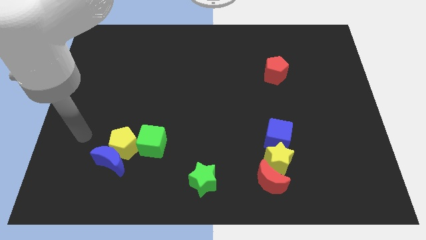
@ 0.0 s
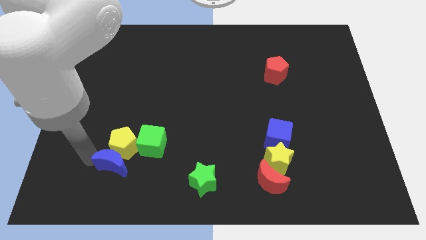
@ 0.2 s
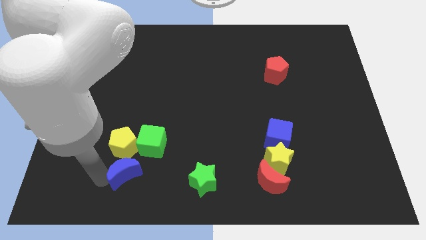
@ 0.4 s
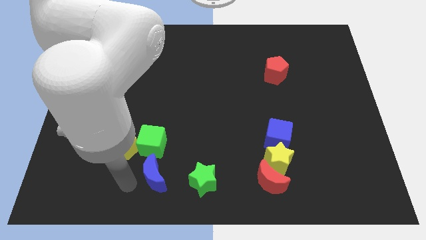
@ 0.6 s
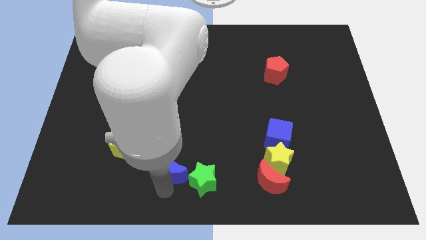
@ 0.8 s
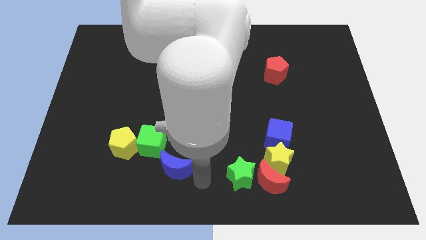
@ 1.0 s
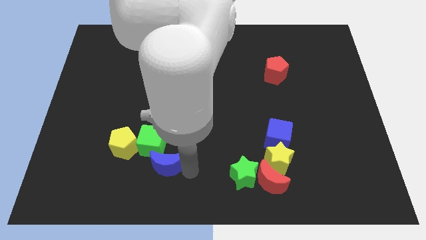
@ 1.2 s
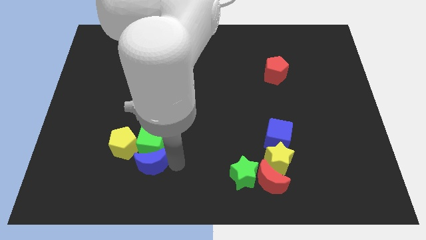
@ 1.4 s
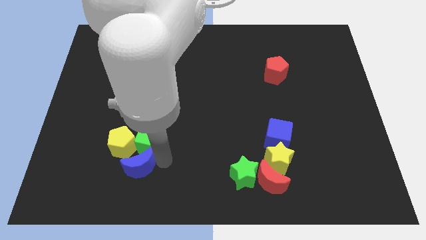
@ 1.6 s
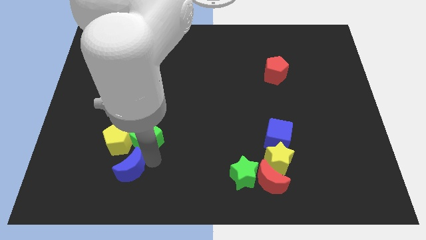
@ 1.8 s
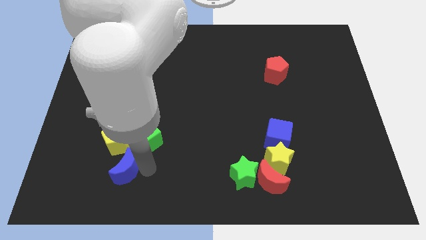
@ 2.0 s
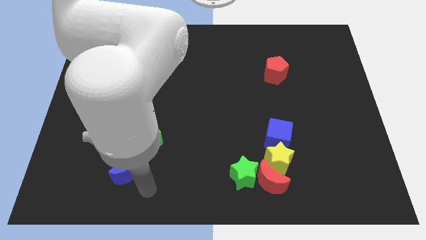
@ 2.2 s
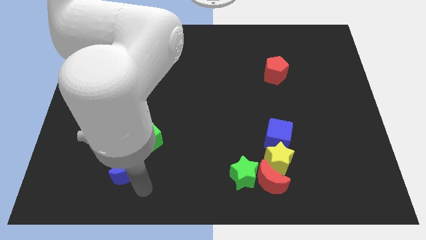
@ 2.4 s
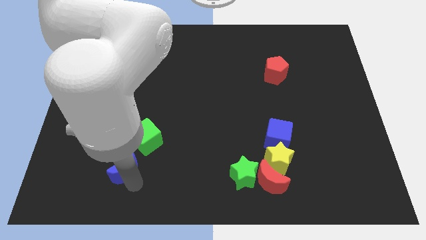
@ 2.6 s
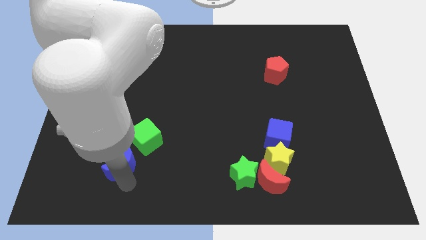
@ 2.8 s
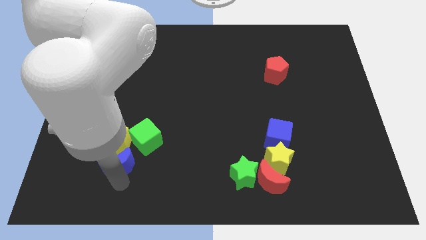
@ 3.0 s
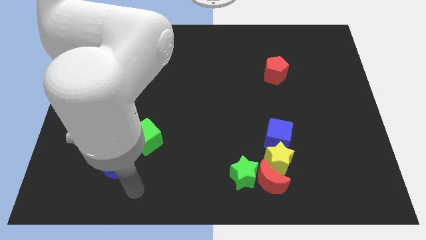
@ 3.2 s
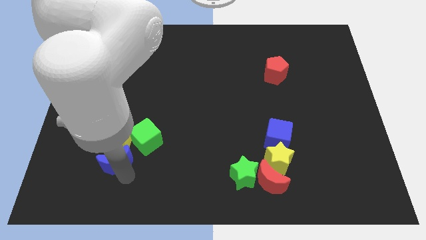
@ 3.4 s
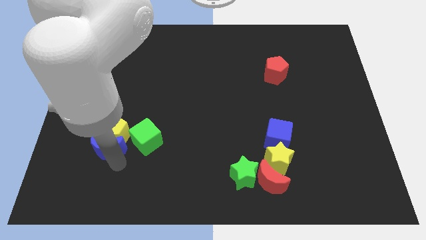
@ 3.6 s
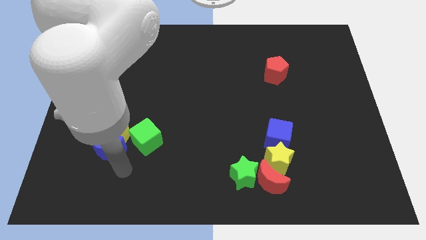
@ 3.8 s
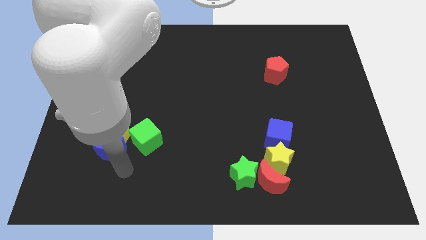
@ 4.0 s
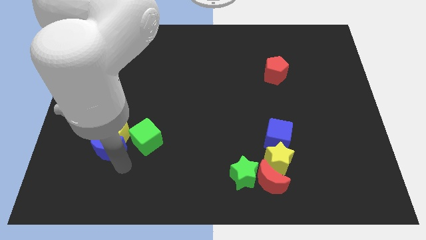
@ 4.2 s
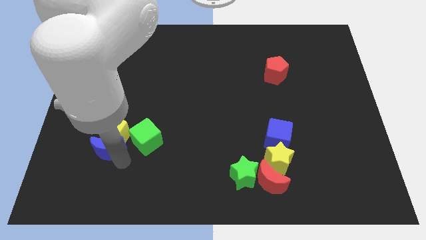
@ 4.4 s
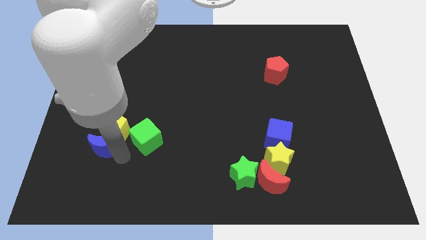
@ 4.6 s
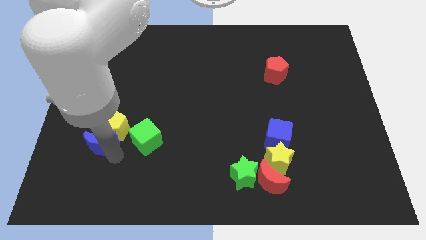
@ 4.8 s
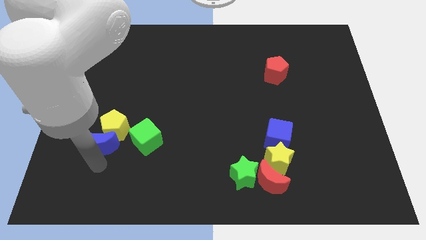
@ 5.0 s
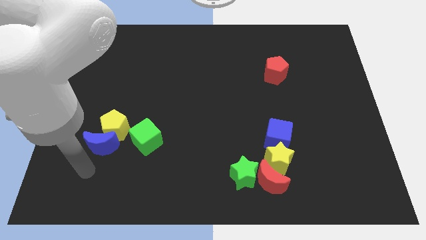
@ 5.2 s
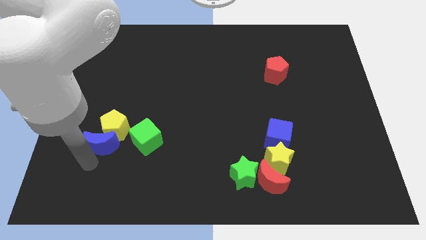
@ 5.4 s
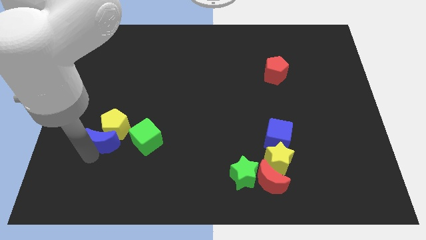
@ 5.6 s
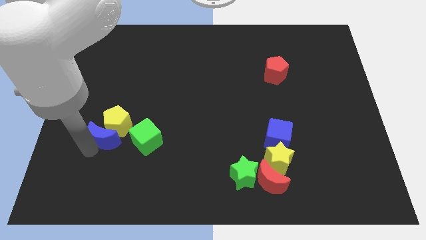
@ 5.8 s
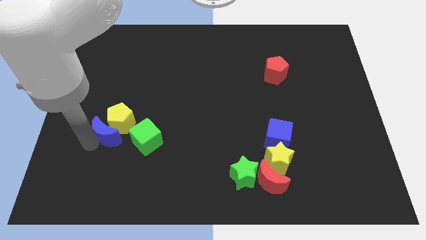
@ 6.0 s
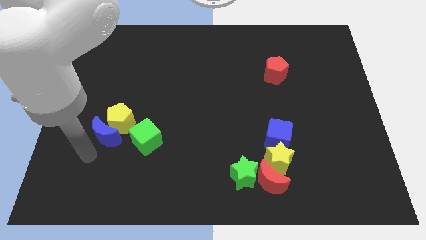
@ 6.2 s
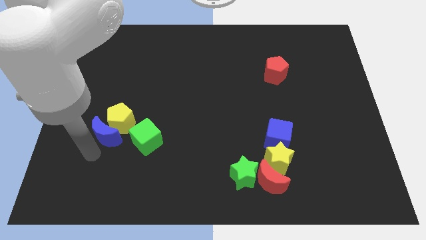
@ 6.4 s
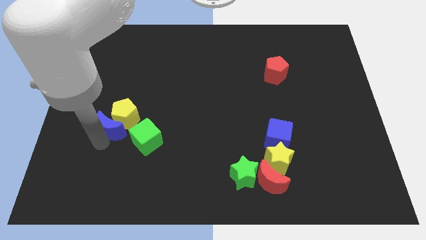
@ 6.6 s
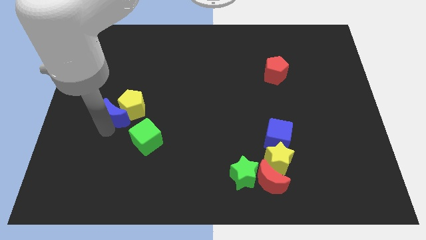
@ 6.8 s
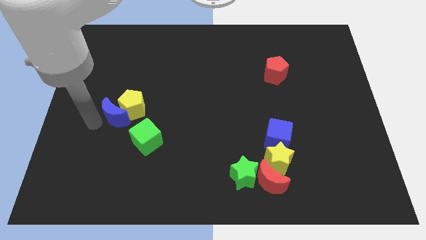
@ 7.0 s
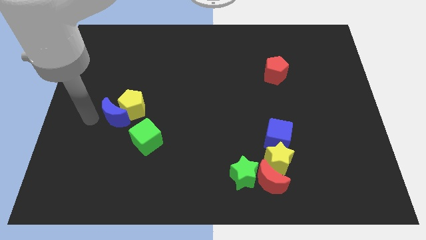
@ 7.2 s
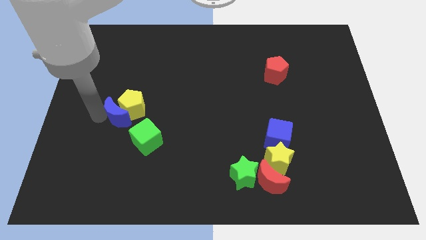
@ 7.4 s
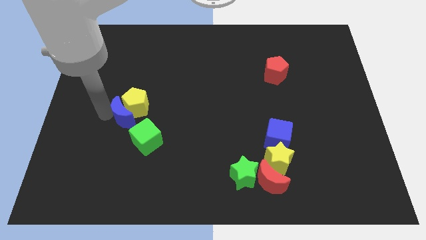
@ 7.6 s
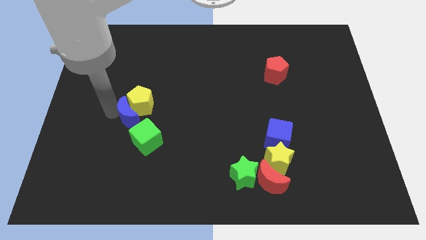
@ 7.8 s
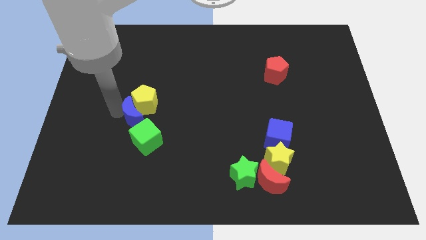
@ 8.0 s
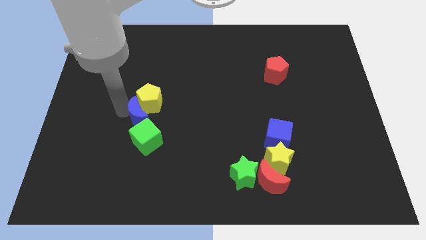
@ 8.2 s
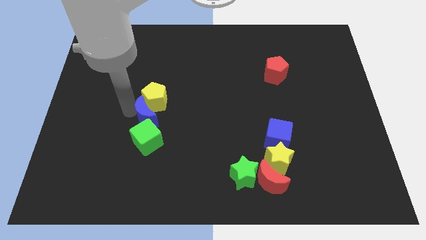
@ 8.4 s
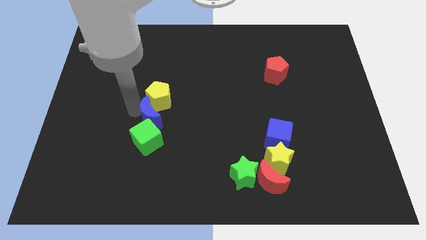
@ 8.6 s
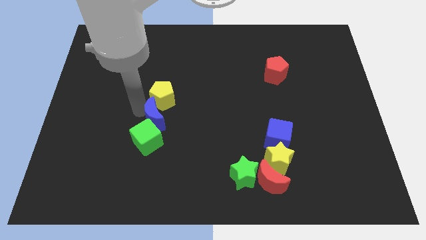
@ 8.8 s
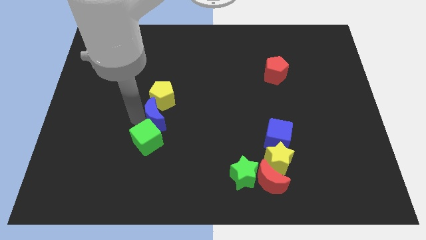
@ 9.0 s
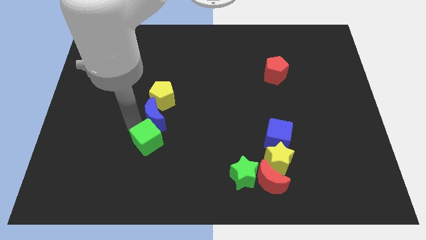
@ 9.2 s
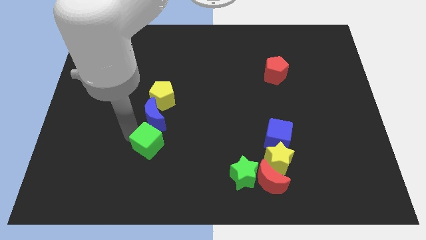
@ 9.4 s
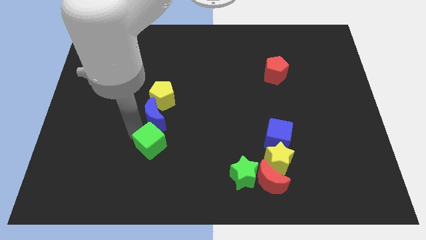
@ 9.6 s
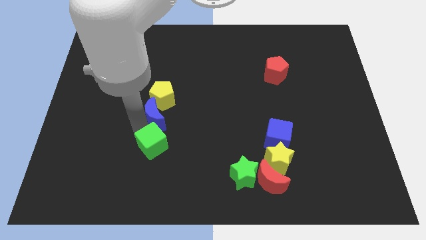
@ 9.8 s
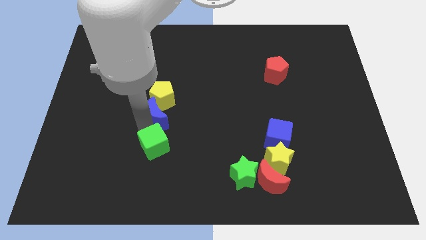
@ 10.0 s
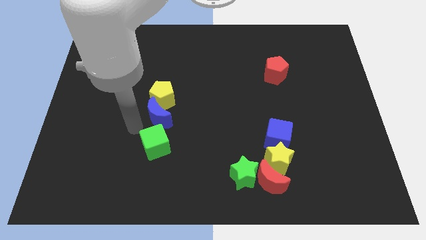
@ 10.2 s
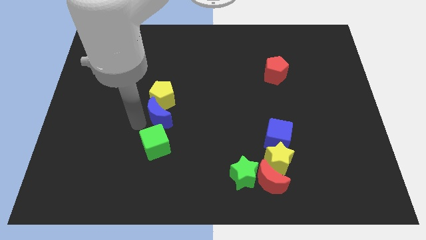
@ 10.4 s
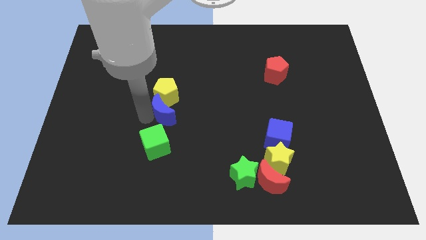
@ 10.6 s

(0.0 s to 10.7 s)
slide the blue moon to the center
